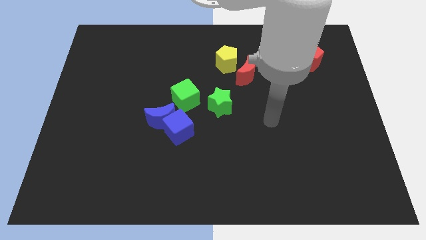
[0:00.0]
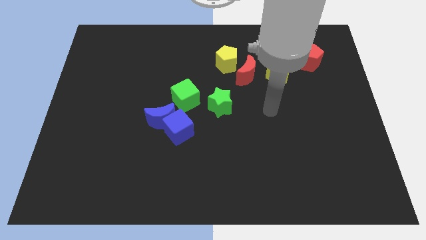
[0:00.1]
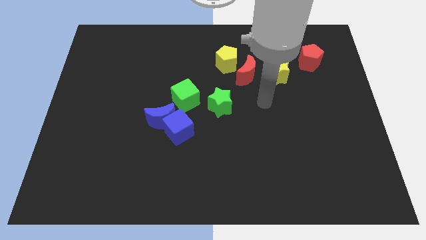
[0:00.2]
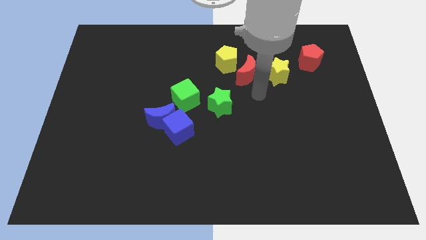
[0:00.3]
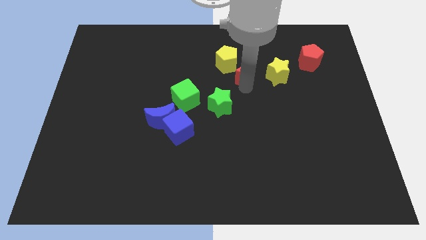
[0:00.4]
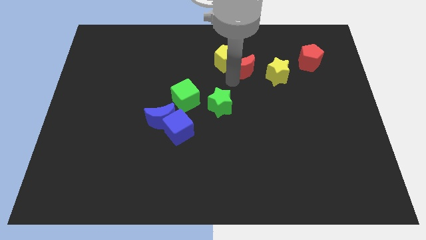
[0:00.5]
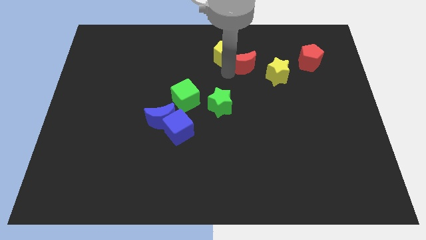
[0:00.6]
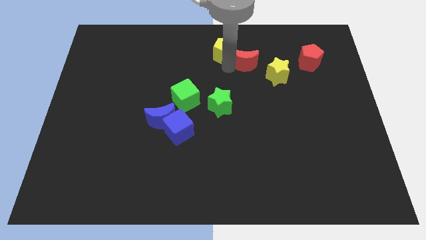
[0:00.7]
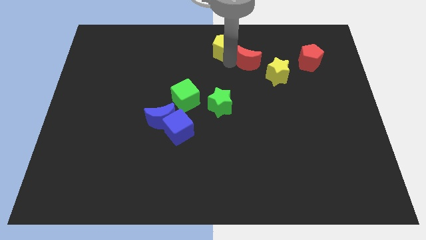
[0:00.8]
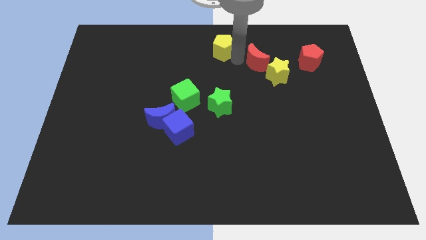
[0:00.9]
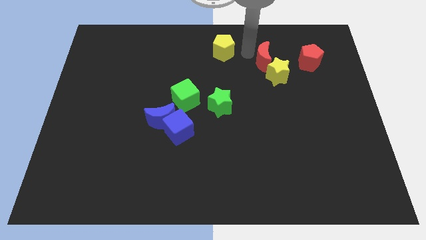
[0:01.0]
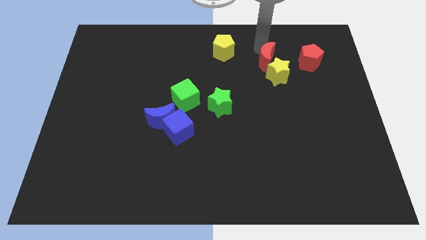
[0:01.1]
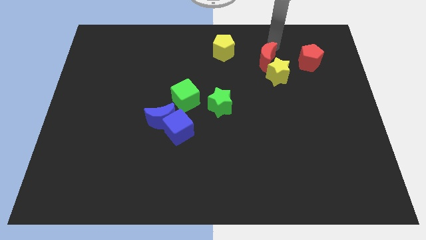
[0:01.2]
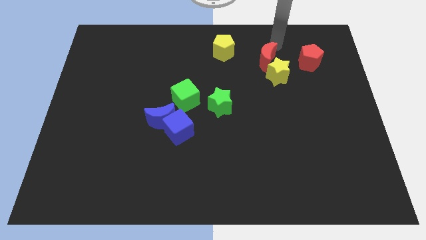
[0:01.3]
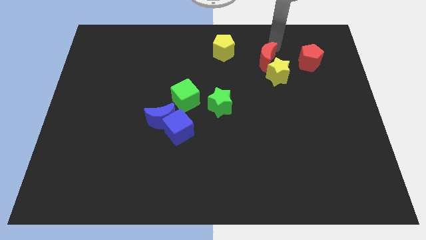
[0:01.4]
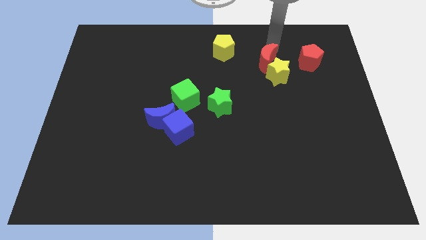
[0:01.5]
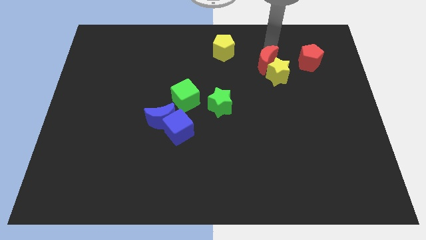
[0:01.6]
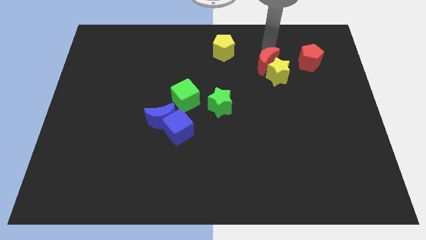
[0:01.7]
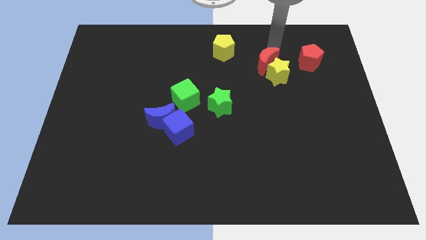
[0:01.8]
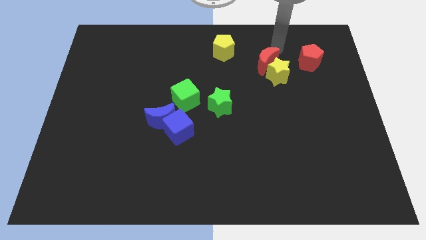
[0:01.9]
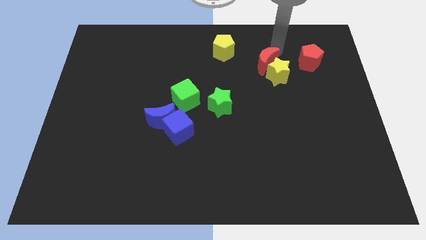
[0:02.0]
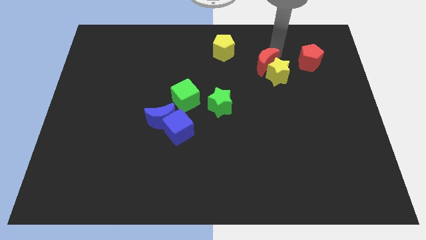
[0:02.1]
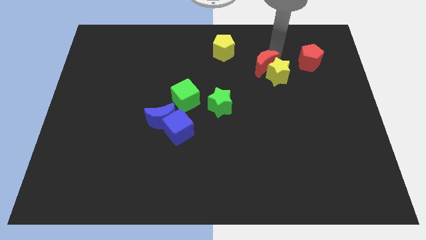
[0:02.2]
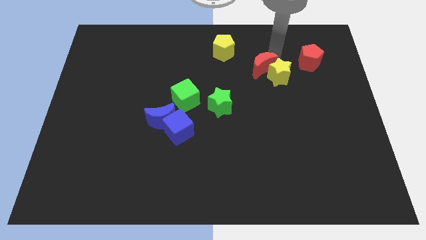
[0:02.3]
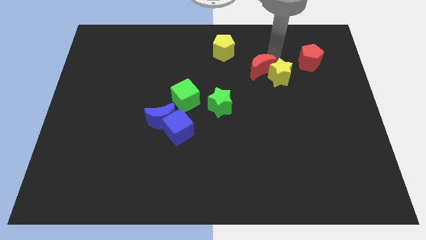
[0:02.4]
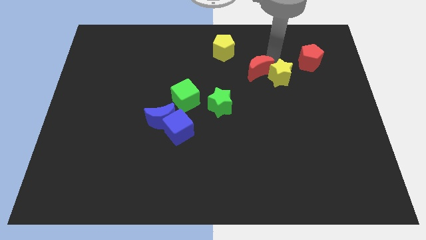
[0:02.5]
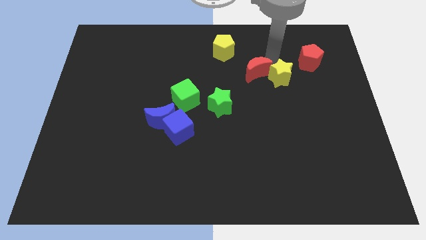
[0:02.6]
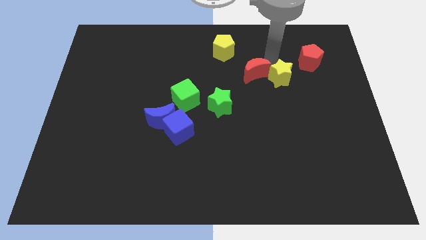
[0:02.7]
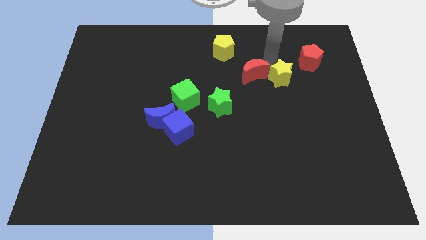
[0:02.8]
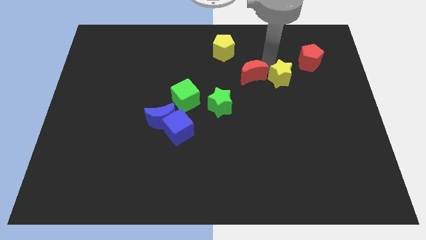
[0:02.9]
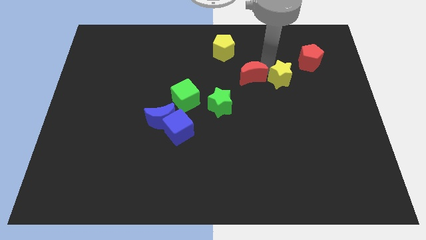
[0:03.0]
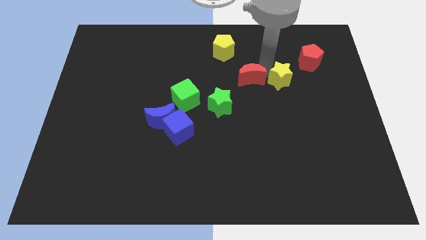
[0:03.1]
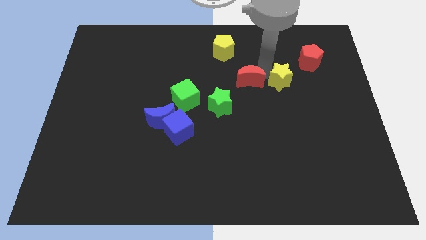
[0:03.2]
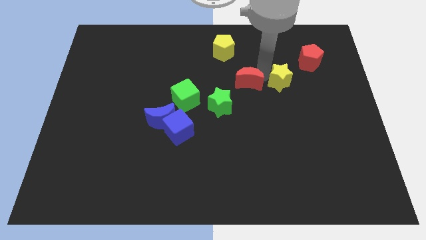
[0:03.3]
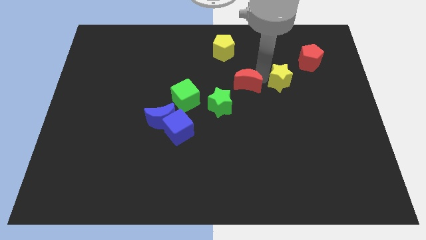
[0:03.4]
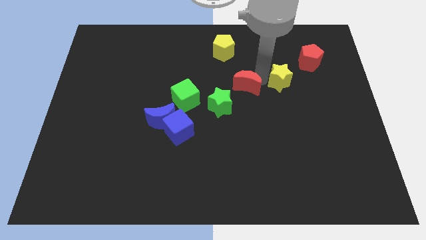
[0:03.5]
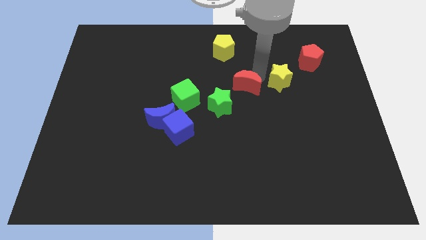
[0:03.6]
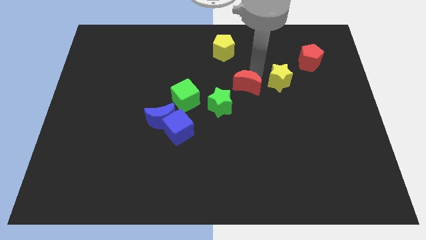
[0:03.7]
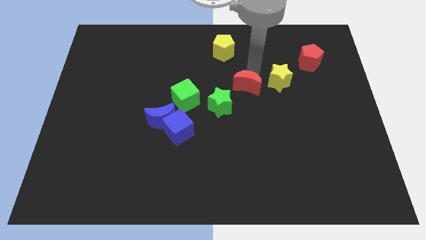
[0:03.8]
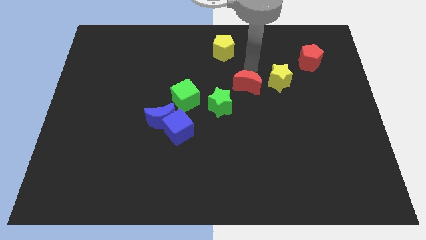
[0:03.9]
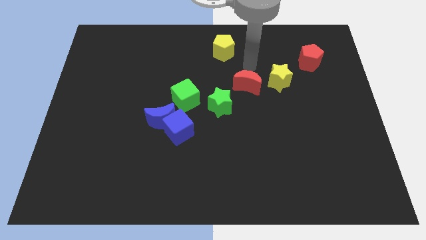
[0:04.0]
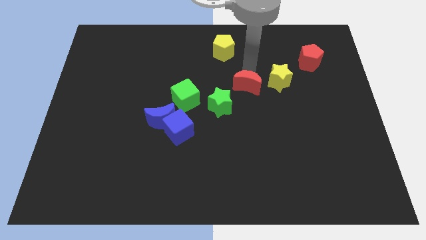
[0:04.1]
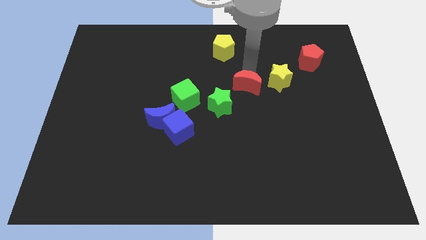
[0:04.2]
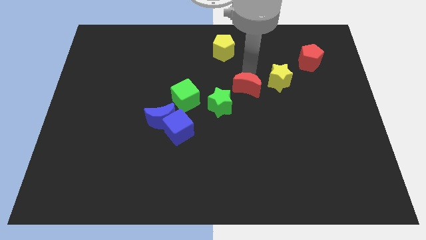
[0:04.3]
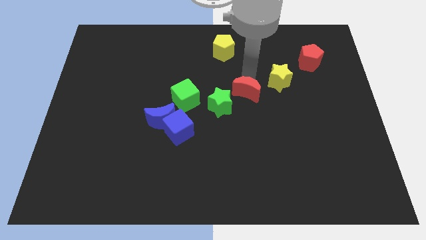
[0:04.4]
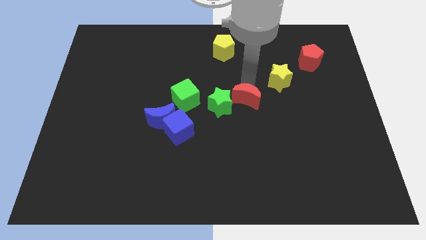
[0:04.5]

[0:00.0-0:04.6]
slightly slide the red moon downwards

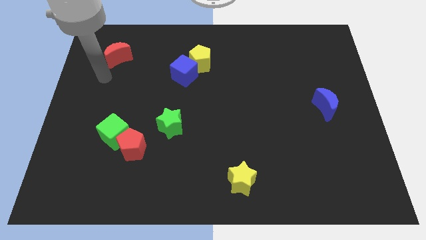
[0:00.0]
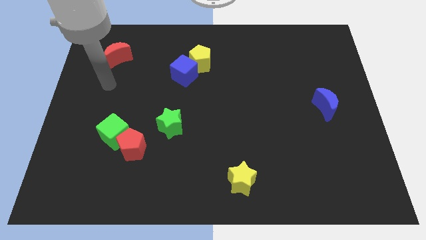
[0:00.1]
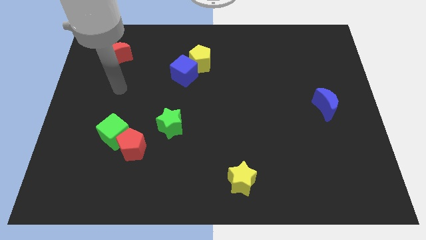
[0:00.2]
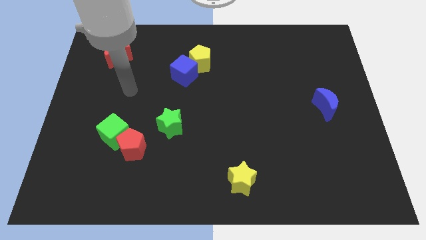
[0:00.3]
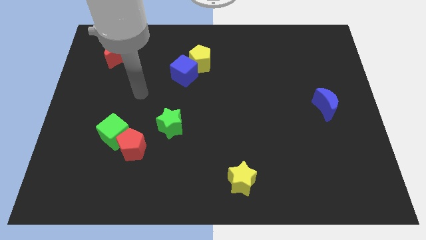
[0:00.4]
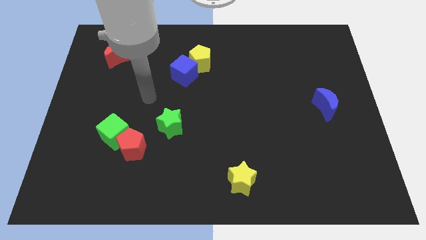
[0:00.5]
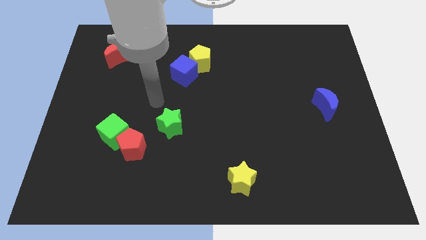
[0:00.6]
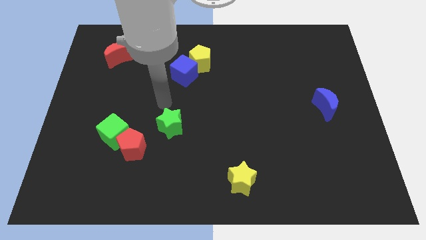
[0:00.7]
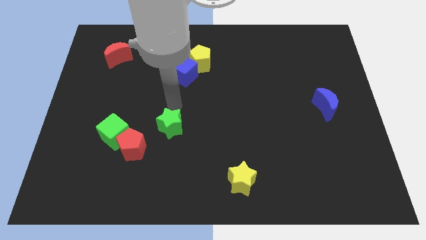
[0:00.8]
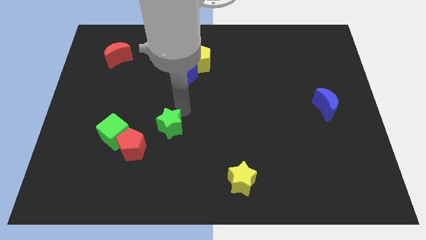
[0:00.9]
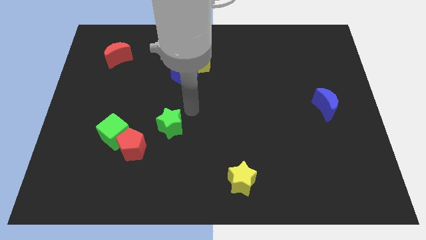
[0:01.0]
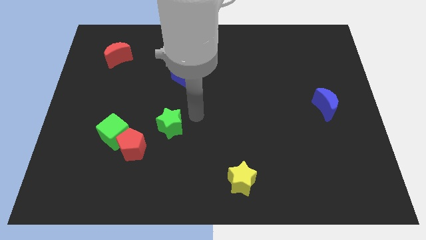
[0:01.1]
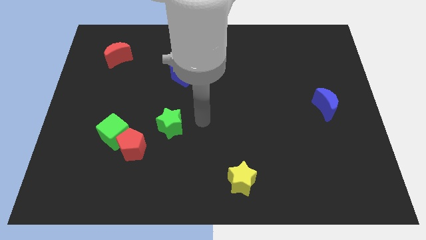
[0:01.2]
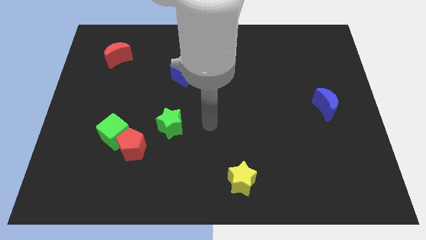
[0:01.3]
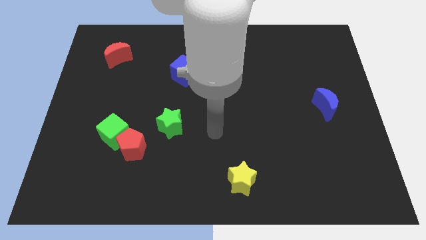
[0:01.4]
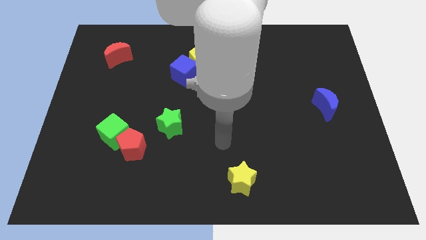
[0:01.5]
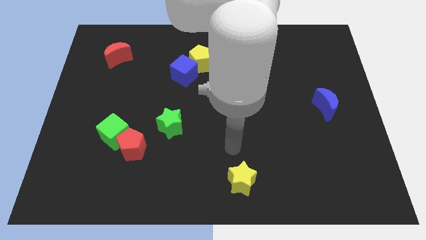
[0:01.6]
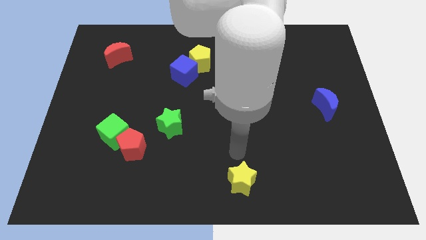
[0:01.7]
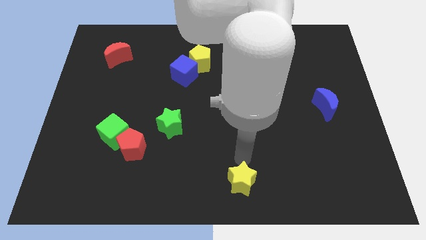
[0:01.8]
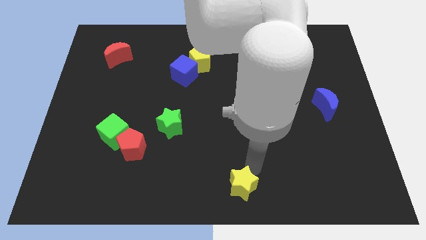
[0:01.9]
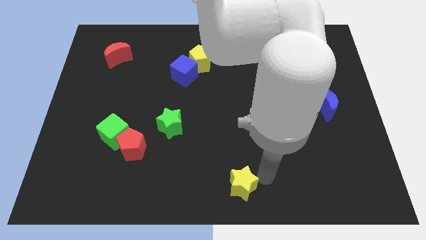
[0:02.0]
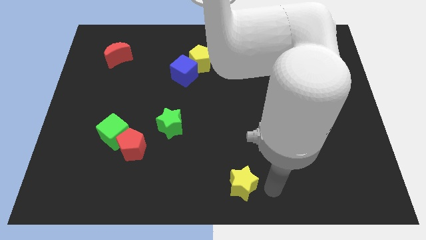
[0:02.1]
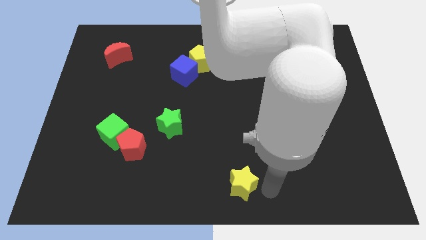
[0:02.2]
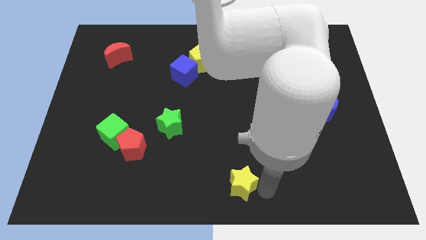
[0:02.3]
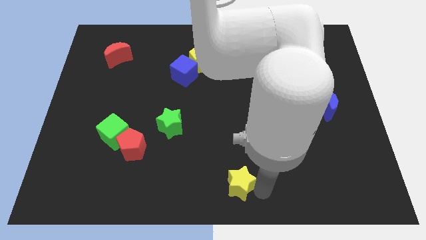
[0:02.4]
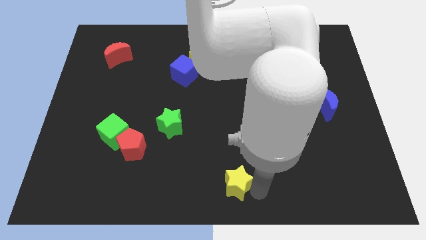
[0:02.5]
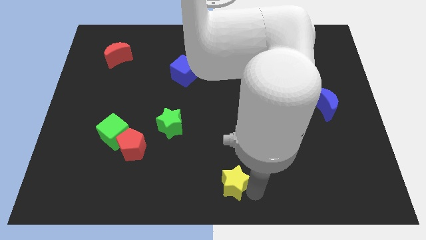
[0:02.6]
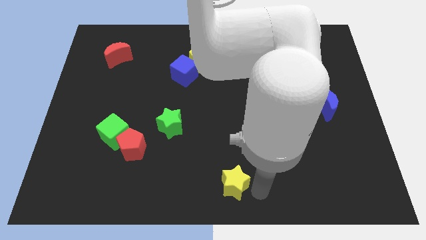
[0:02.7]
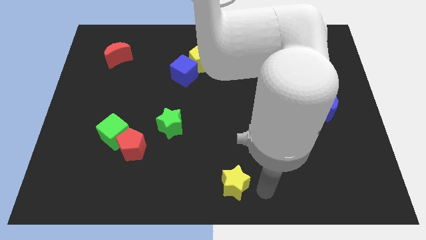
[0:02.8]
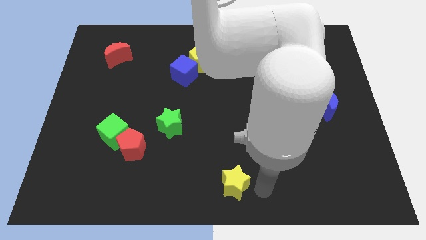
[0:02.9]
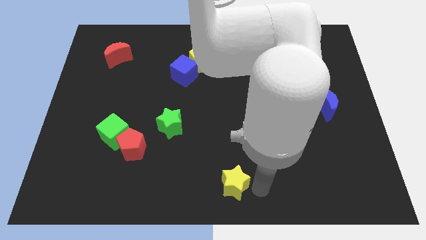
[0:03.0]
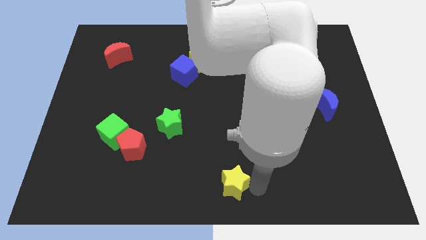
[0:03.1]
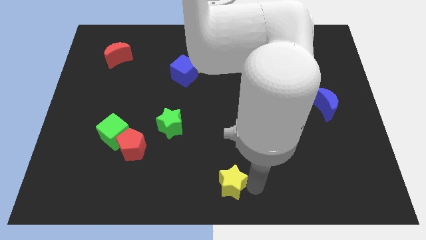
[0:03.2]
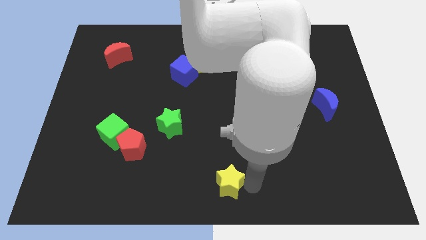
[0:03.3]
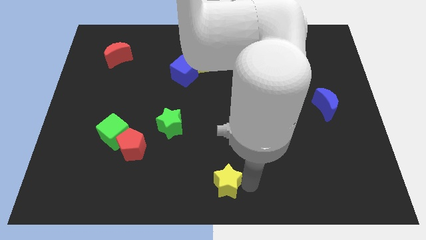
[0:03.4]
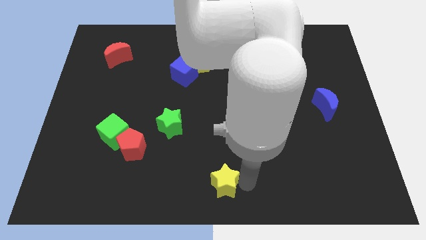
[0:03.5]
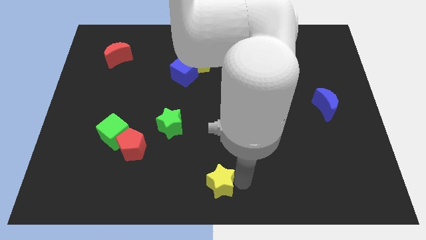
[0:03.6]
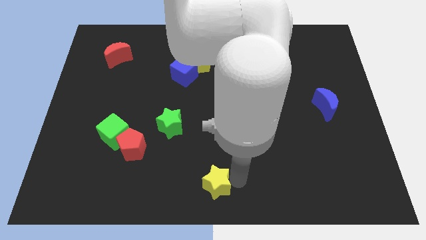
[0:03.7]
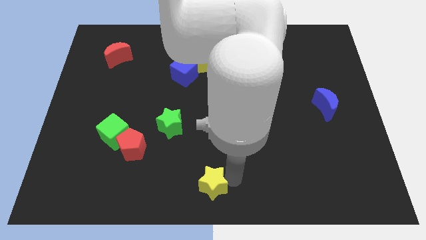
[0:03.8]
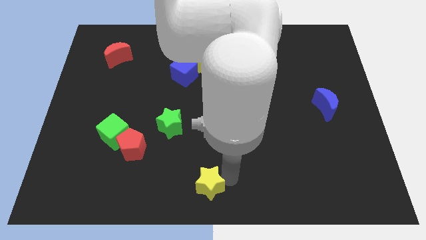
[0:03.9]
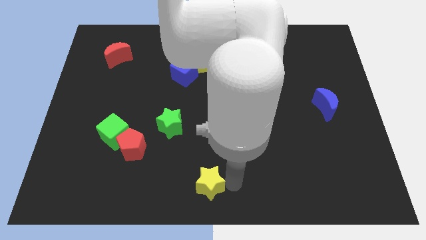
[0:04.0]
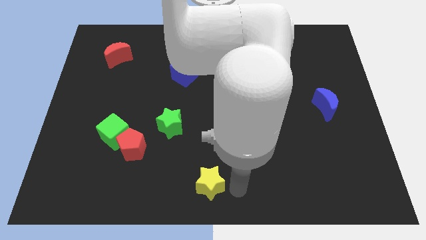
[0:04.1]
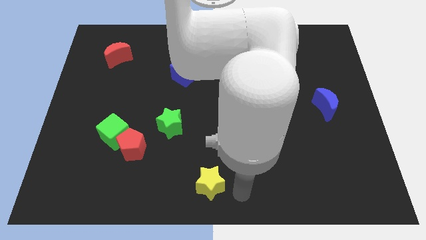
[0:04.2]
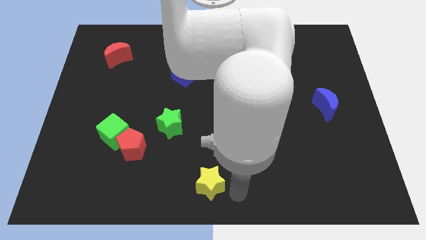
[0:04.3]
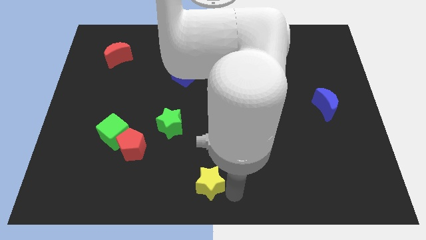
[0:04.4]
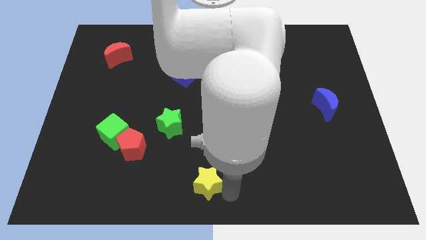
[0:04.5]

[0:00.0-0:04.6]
slightly slide the yellow star left
